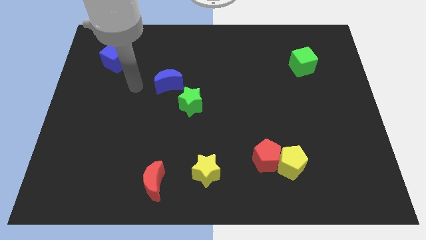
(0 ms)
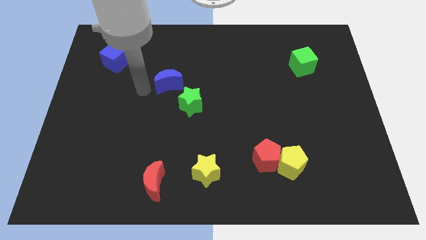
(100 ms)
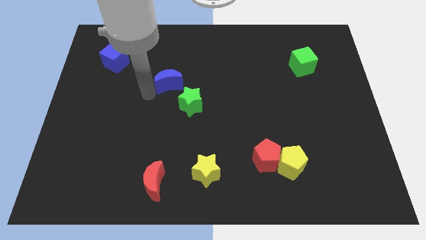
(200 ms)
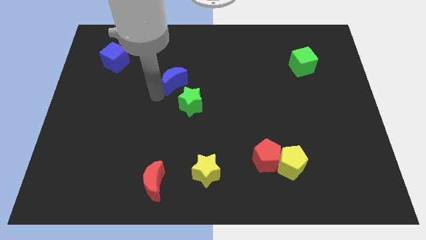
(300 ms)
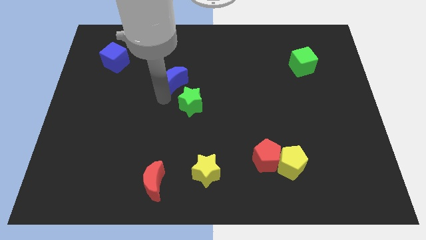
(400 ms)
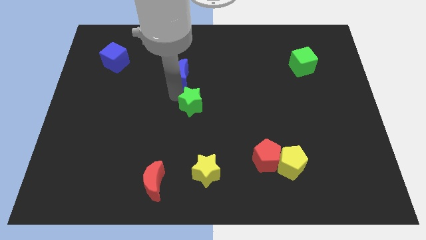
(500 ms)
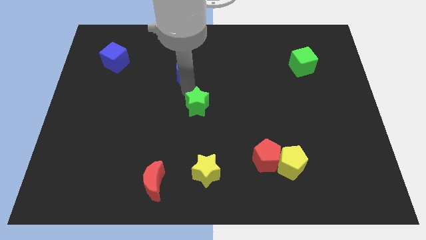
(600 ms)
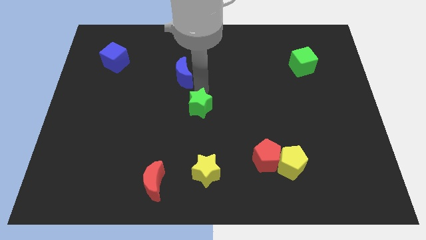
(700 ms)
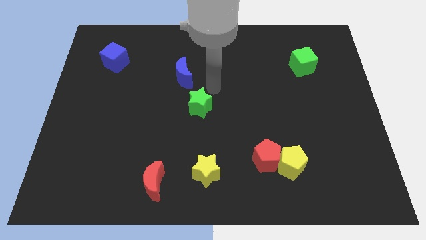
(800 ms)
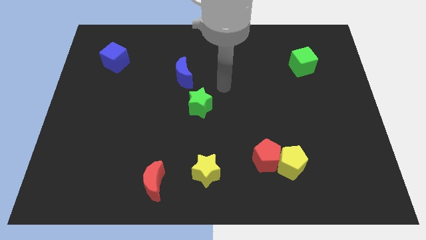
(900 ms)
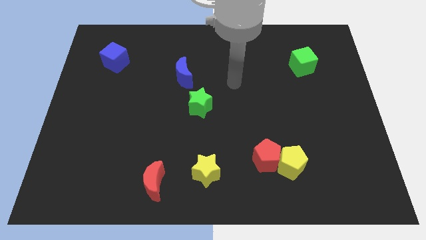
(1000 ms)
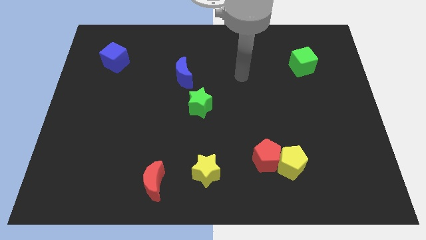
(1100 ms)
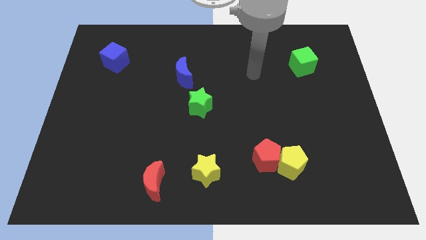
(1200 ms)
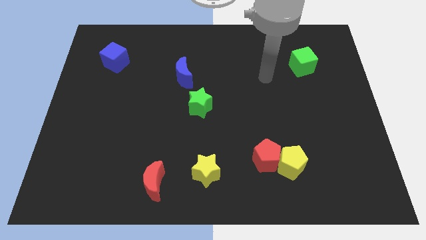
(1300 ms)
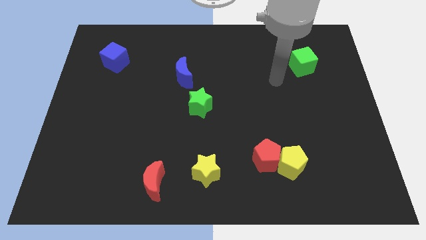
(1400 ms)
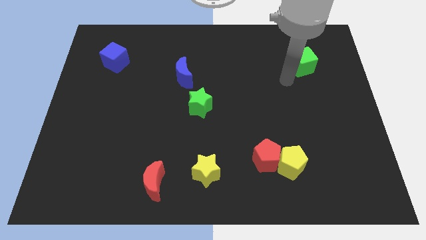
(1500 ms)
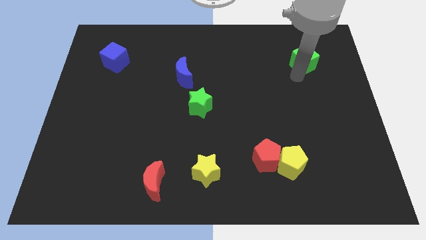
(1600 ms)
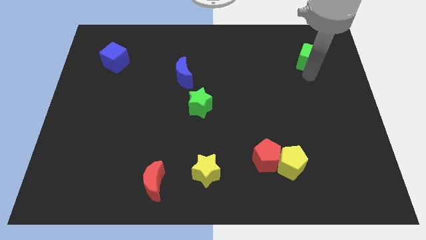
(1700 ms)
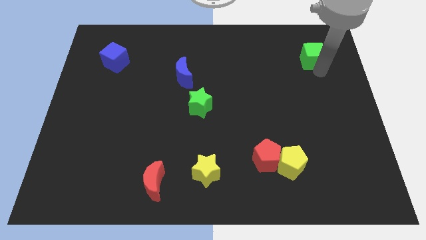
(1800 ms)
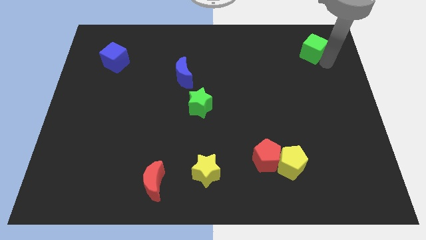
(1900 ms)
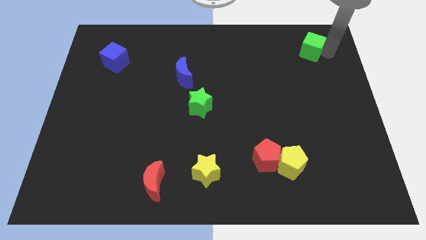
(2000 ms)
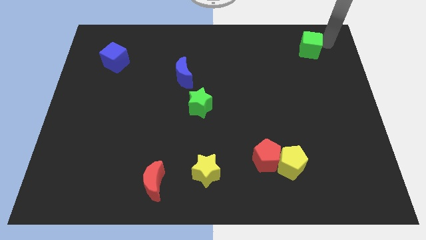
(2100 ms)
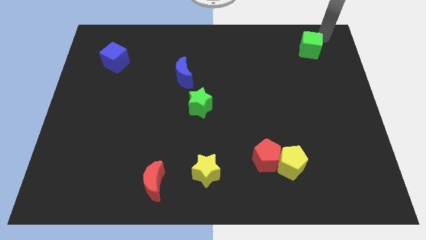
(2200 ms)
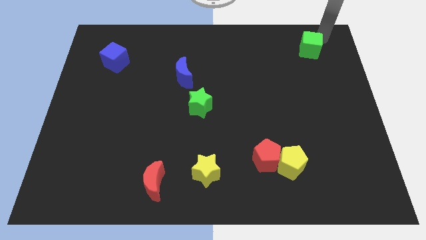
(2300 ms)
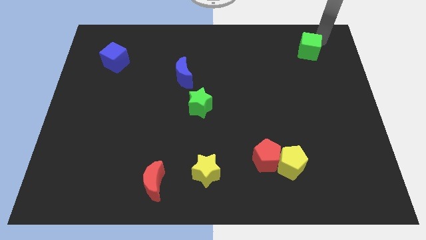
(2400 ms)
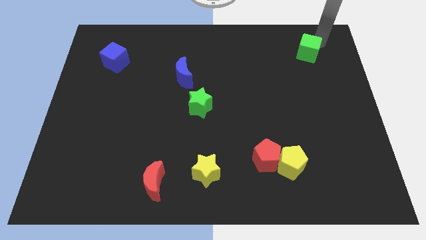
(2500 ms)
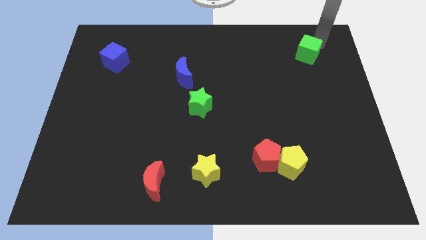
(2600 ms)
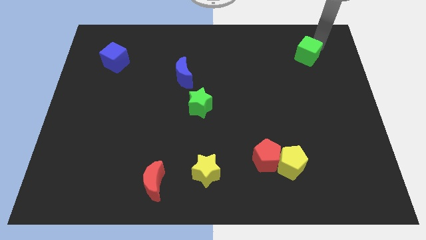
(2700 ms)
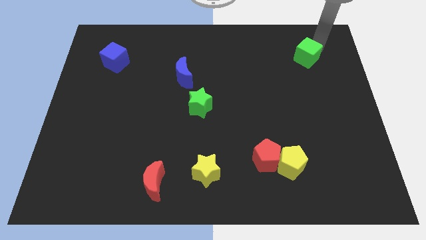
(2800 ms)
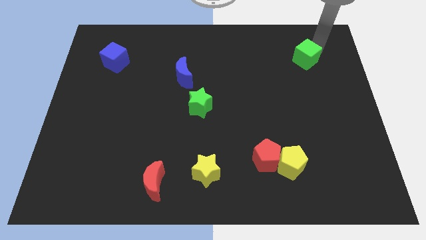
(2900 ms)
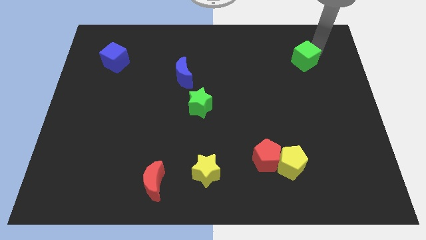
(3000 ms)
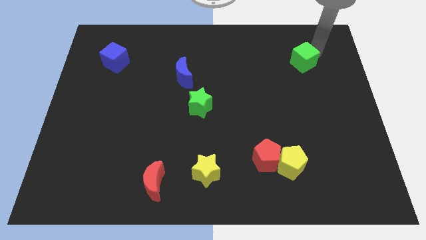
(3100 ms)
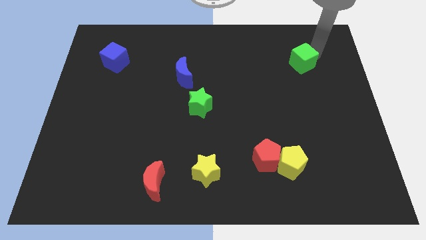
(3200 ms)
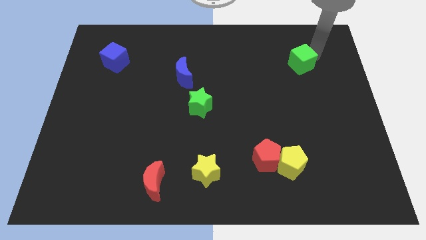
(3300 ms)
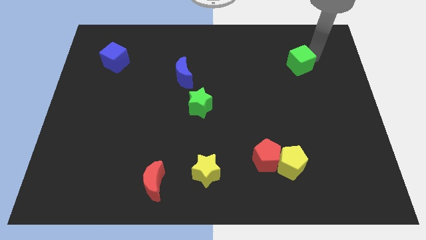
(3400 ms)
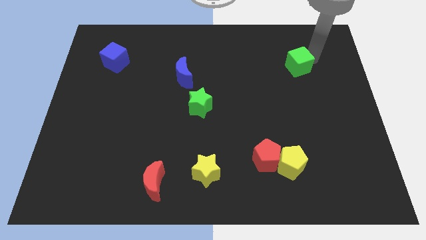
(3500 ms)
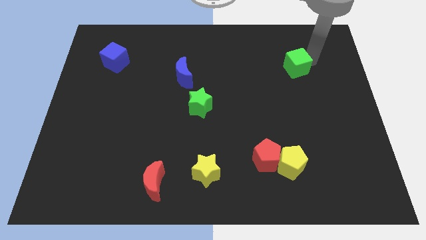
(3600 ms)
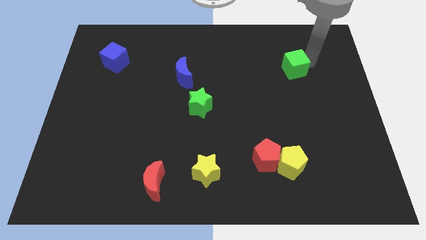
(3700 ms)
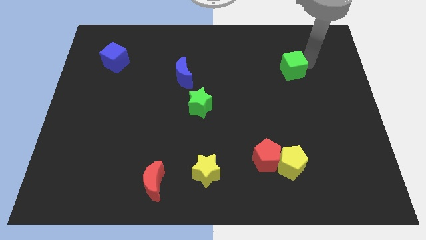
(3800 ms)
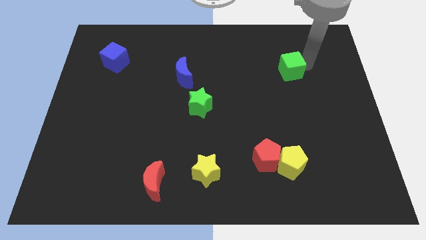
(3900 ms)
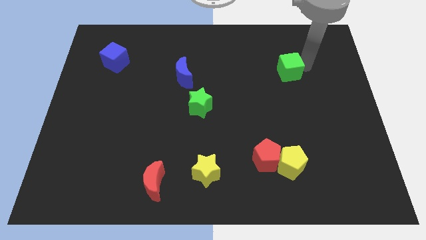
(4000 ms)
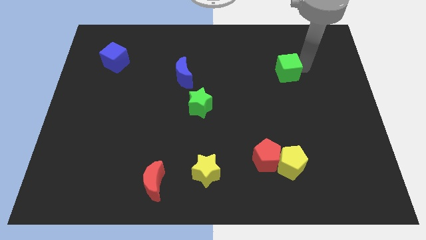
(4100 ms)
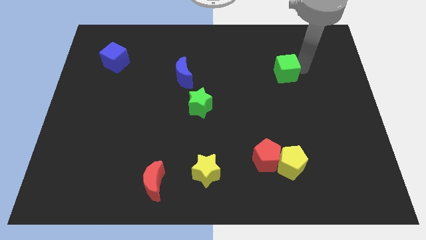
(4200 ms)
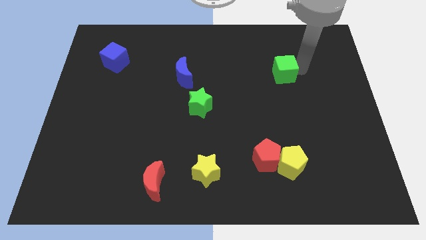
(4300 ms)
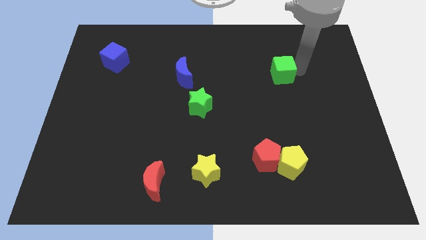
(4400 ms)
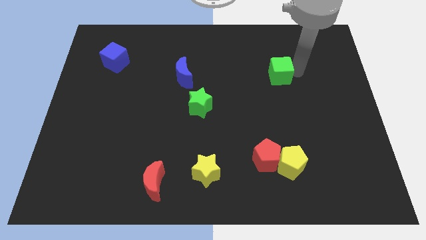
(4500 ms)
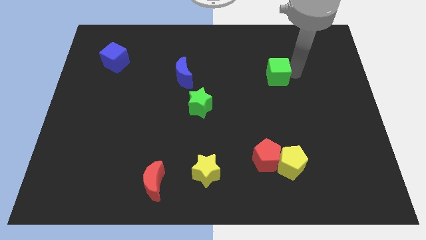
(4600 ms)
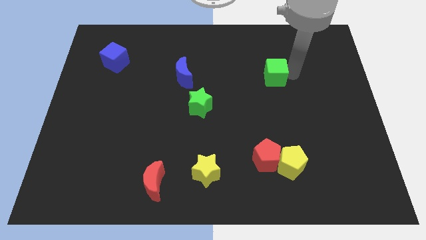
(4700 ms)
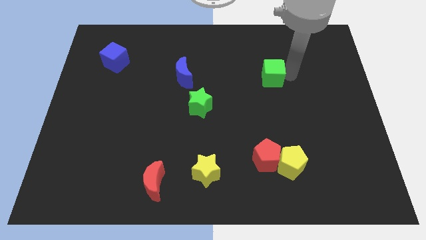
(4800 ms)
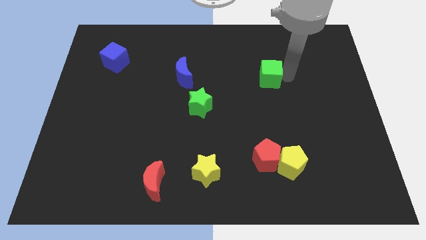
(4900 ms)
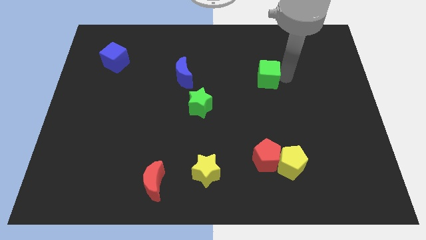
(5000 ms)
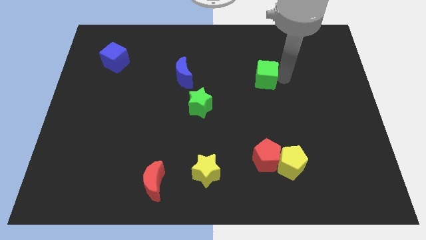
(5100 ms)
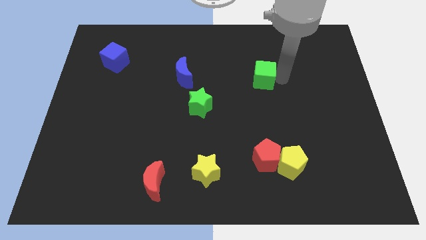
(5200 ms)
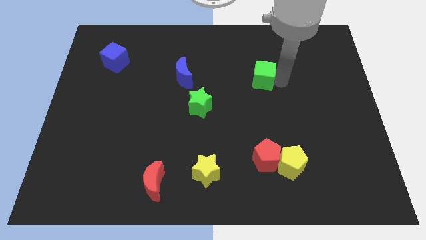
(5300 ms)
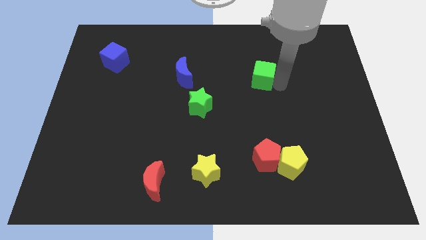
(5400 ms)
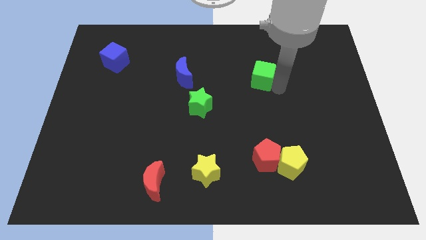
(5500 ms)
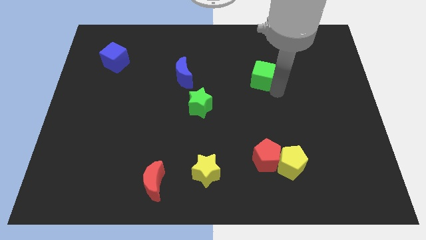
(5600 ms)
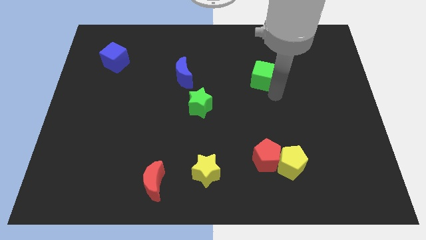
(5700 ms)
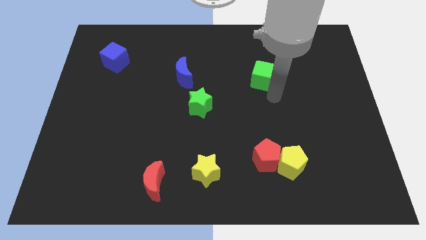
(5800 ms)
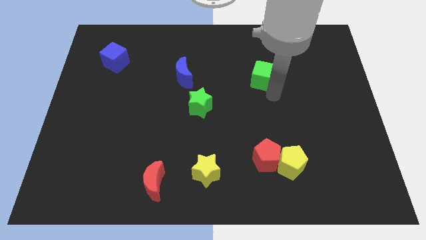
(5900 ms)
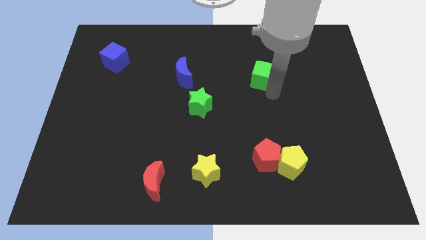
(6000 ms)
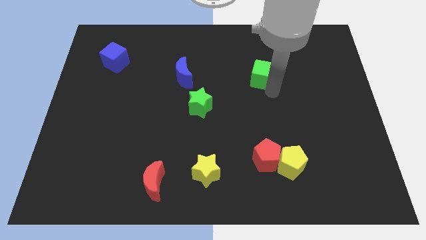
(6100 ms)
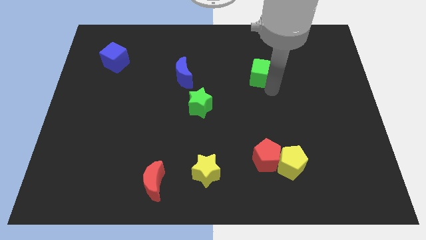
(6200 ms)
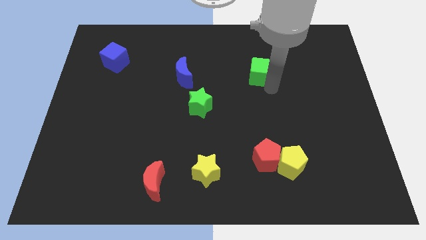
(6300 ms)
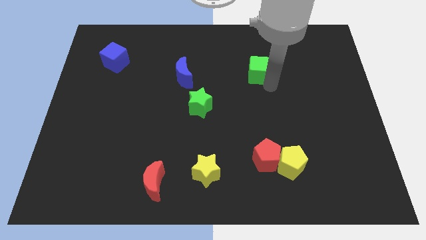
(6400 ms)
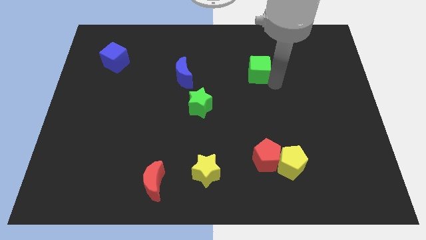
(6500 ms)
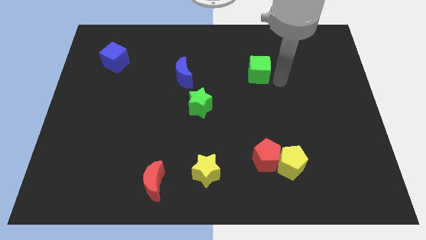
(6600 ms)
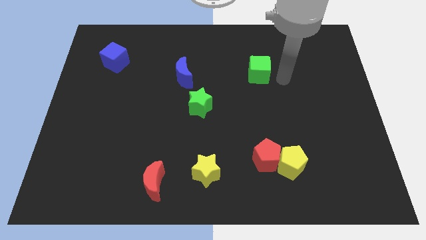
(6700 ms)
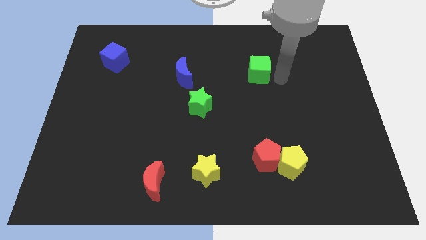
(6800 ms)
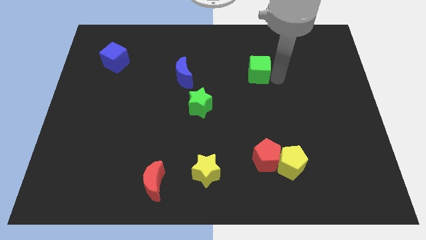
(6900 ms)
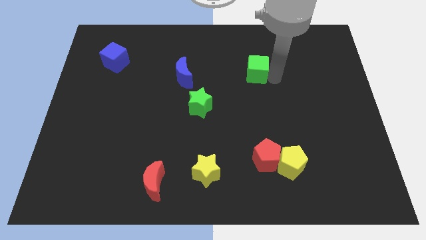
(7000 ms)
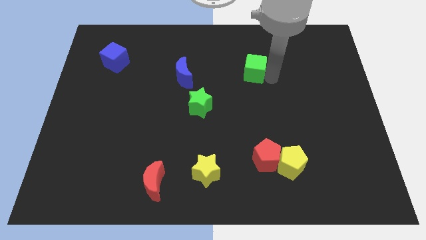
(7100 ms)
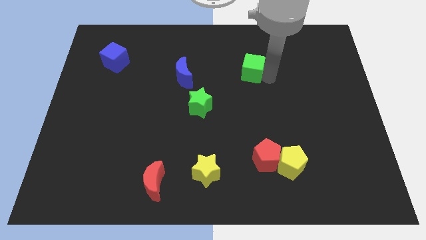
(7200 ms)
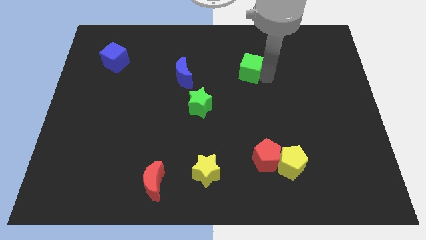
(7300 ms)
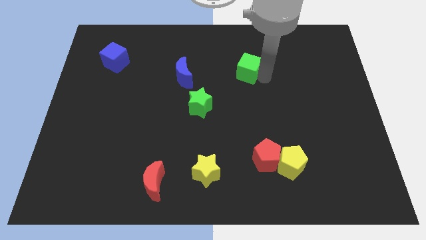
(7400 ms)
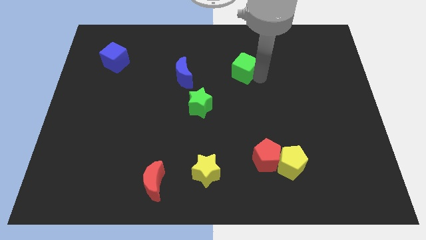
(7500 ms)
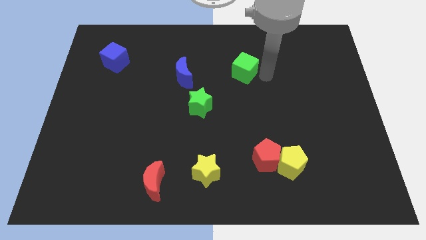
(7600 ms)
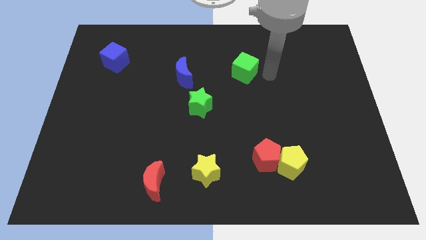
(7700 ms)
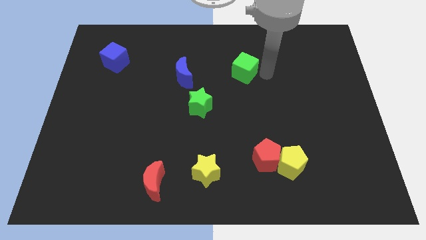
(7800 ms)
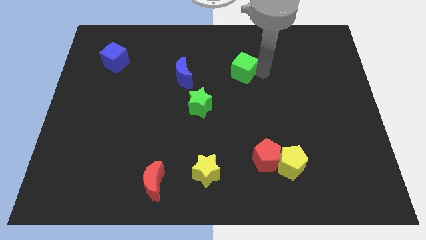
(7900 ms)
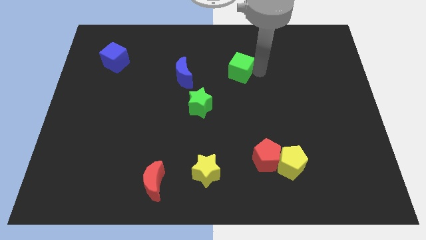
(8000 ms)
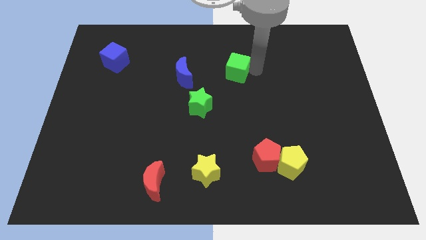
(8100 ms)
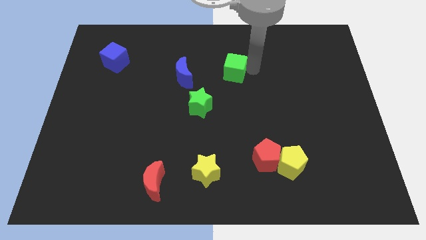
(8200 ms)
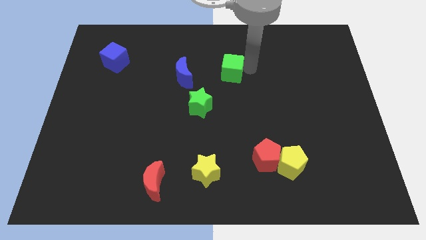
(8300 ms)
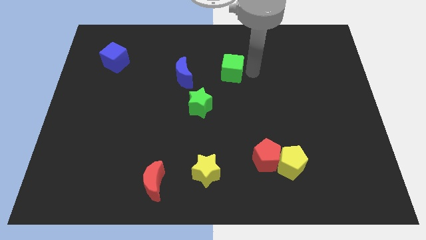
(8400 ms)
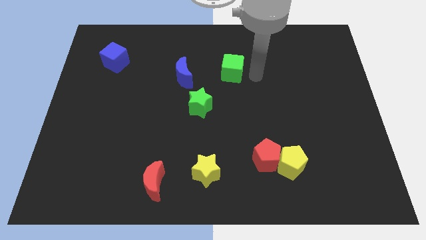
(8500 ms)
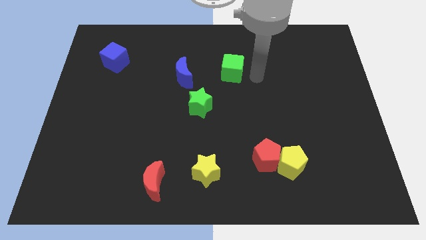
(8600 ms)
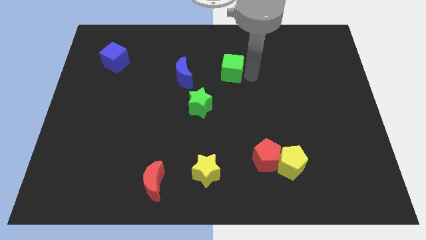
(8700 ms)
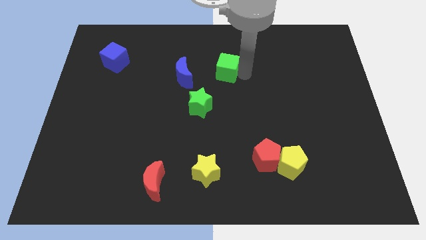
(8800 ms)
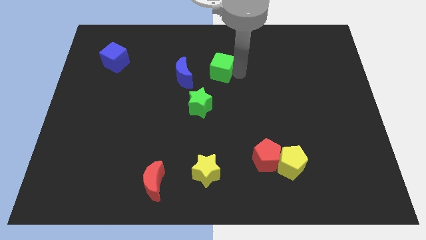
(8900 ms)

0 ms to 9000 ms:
move the green cube left
